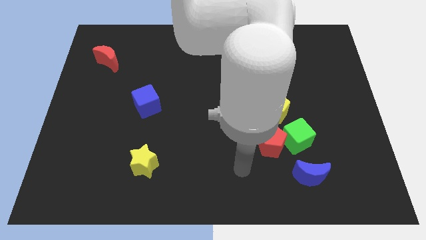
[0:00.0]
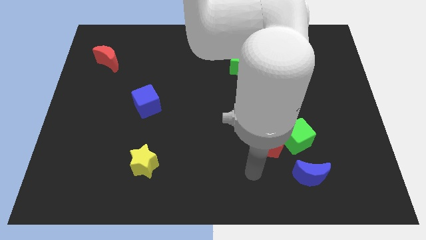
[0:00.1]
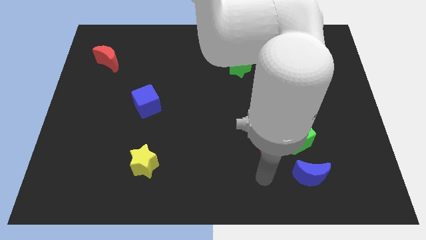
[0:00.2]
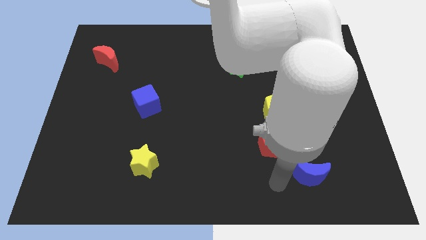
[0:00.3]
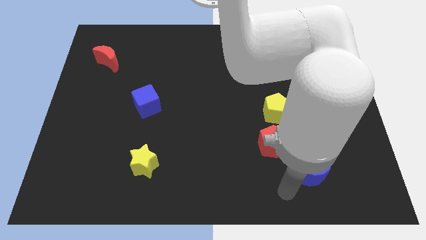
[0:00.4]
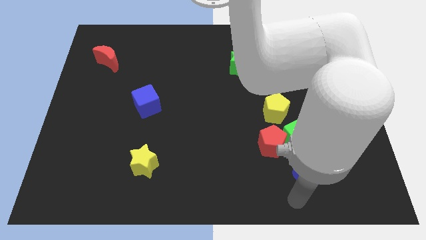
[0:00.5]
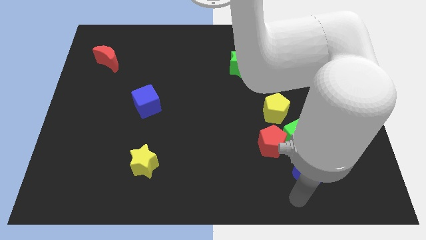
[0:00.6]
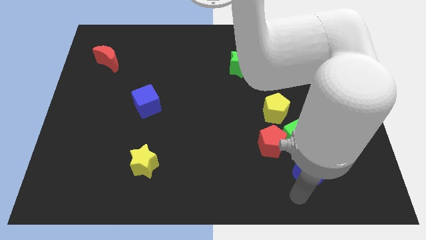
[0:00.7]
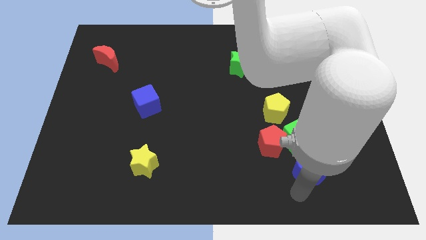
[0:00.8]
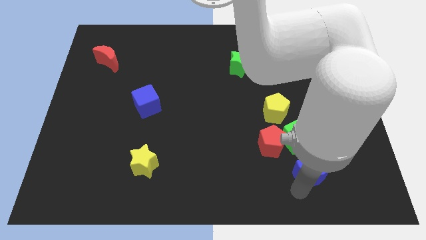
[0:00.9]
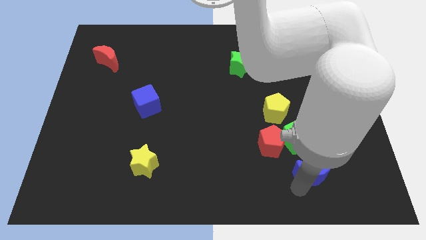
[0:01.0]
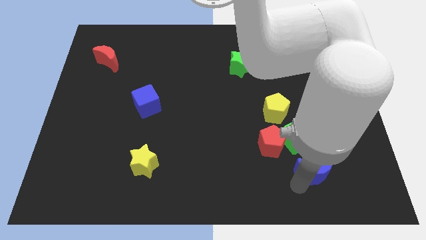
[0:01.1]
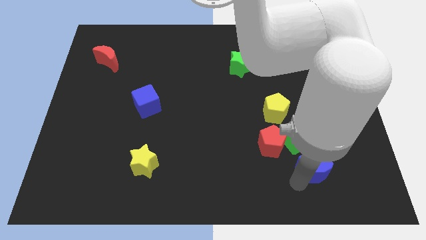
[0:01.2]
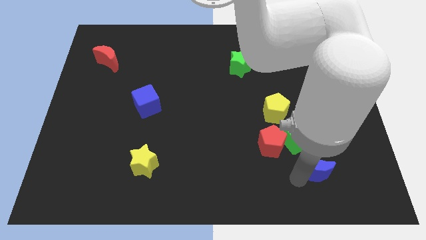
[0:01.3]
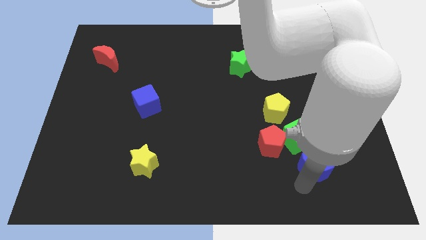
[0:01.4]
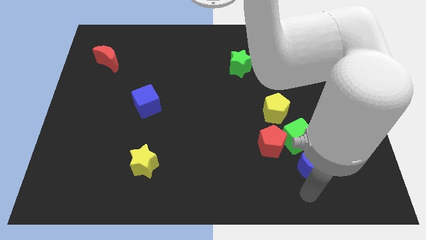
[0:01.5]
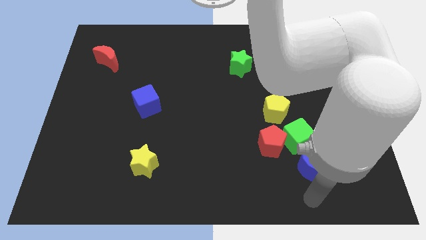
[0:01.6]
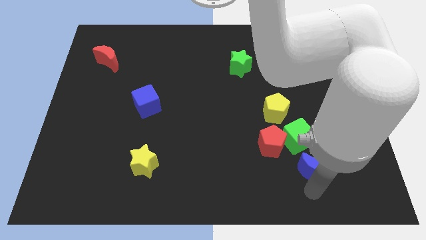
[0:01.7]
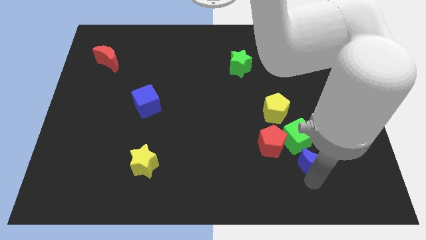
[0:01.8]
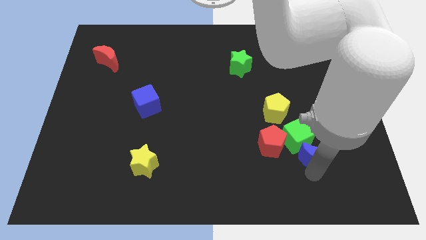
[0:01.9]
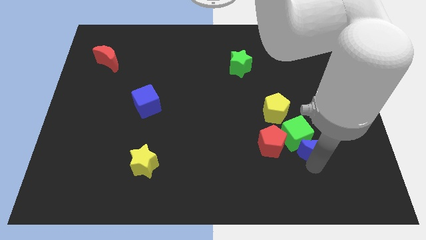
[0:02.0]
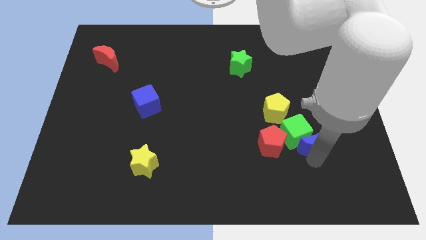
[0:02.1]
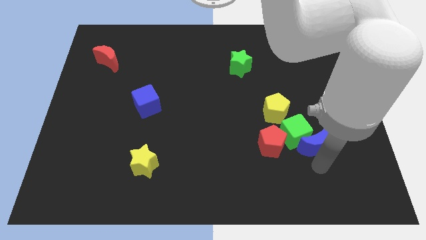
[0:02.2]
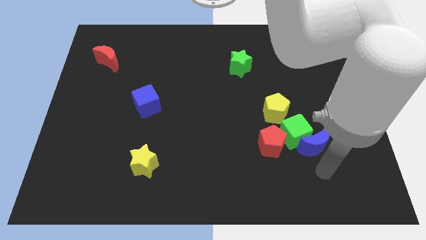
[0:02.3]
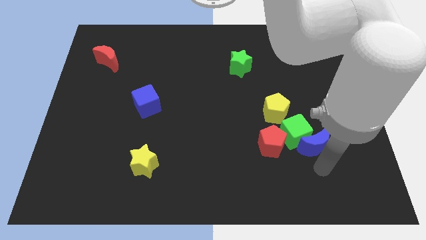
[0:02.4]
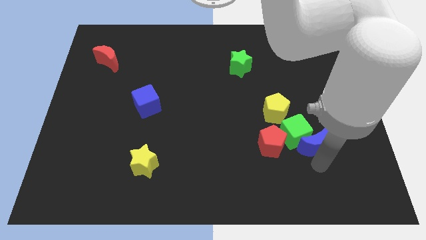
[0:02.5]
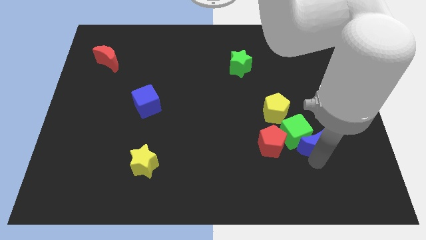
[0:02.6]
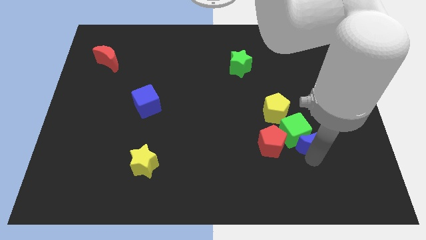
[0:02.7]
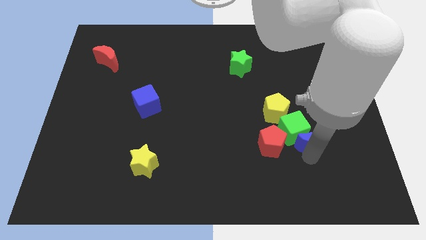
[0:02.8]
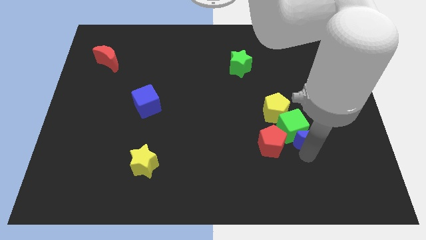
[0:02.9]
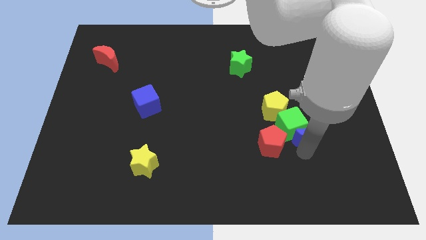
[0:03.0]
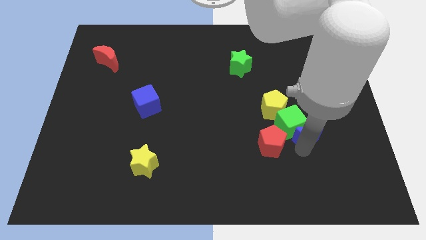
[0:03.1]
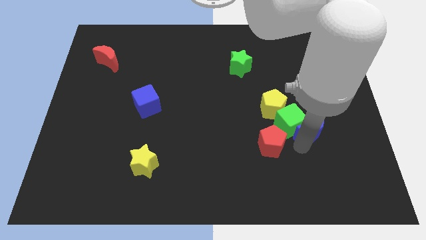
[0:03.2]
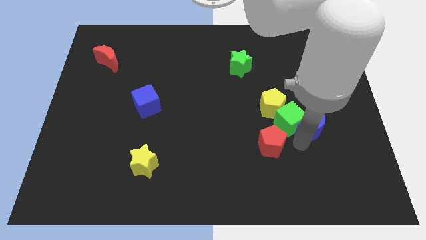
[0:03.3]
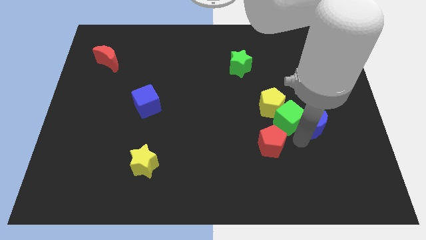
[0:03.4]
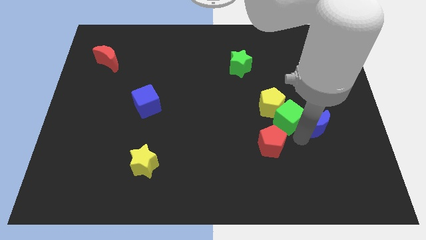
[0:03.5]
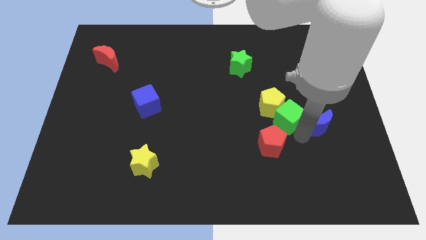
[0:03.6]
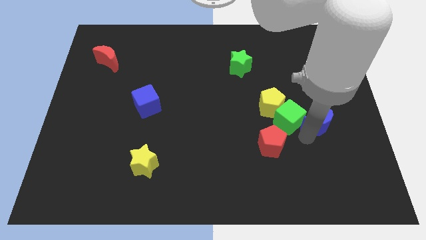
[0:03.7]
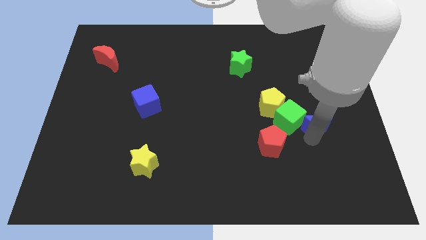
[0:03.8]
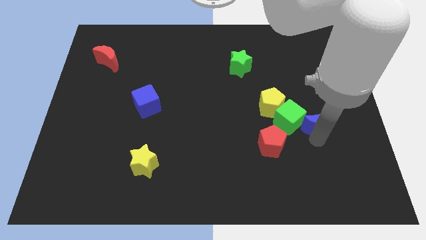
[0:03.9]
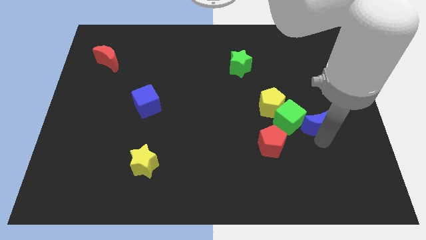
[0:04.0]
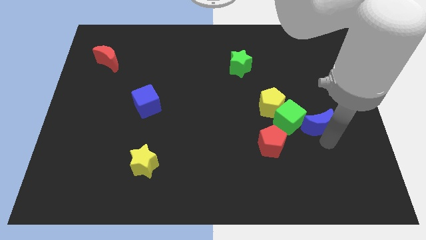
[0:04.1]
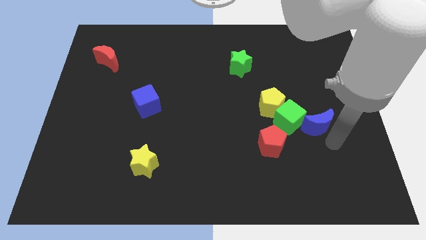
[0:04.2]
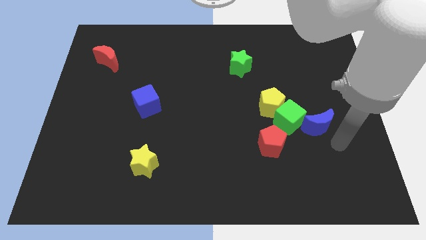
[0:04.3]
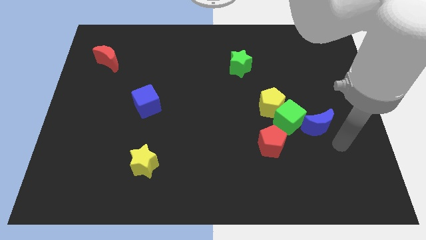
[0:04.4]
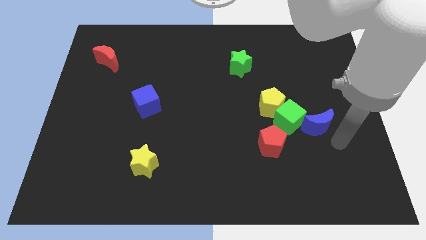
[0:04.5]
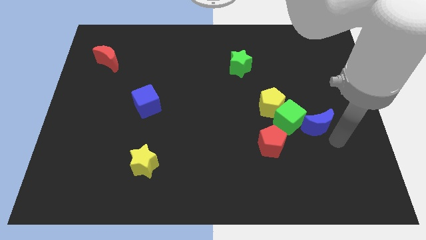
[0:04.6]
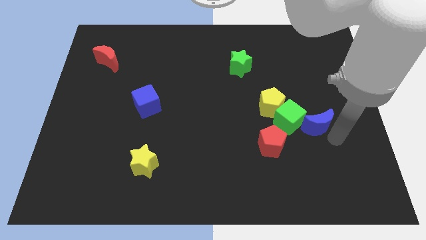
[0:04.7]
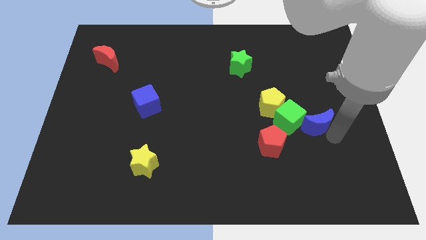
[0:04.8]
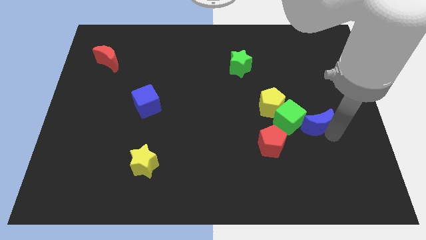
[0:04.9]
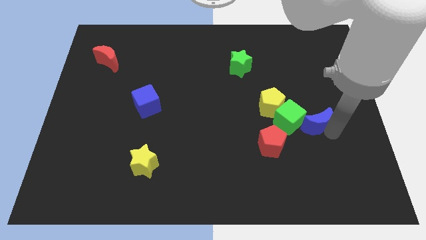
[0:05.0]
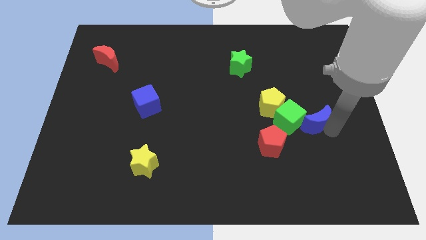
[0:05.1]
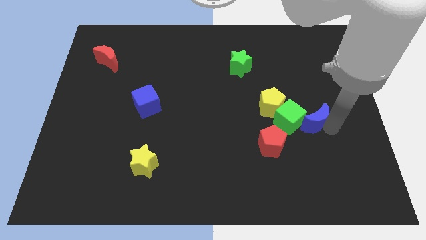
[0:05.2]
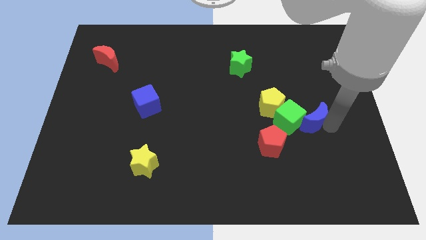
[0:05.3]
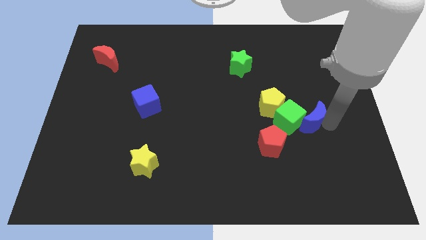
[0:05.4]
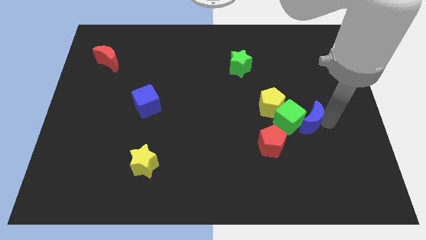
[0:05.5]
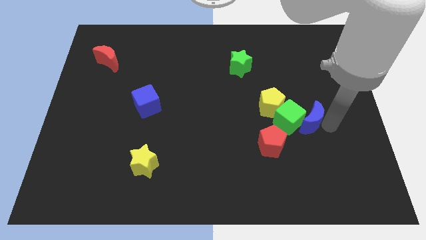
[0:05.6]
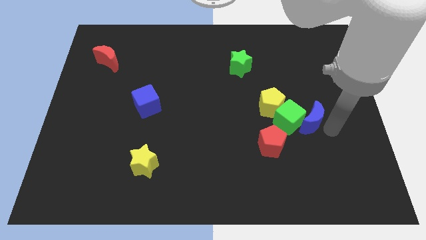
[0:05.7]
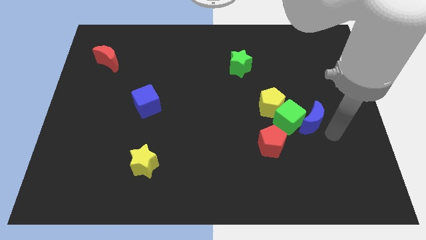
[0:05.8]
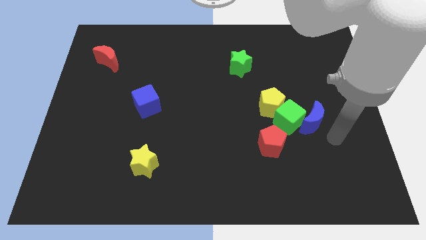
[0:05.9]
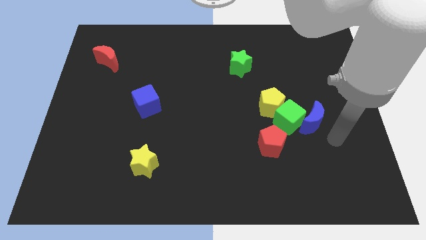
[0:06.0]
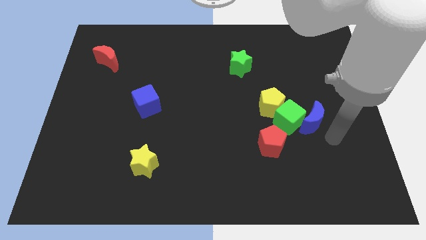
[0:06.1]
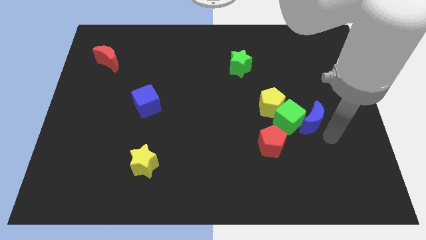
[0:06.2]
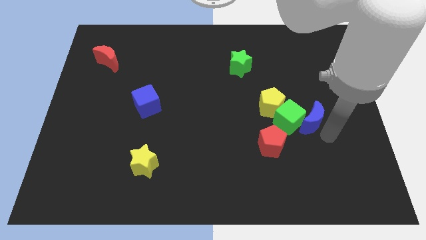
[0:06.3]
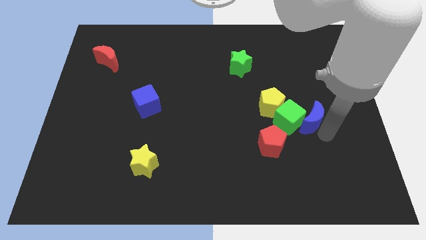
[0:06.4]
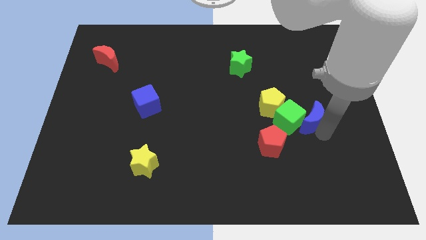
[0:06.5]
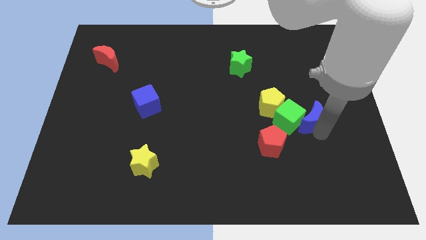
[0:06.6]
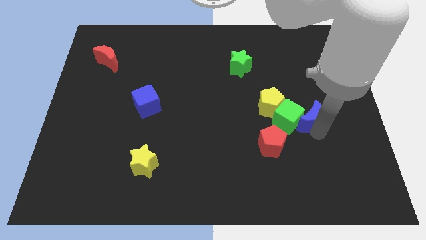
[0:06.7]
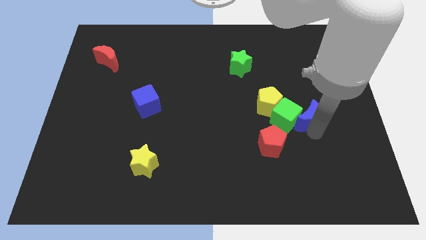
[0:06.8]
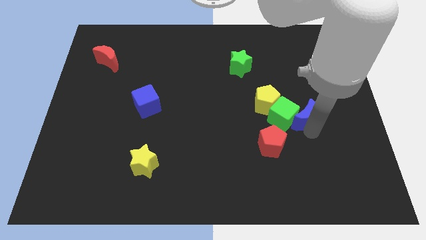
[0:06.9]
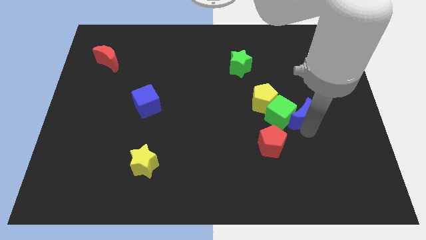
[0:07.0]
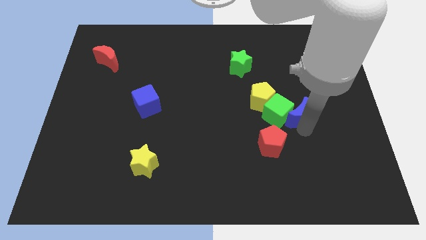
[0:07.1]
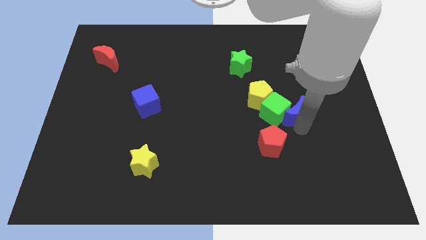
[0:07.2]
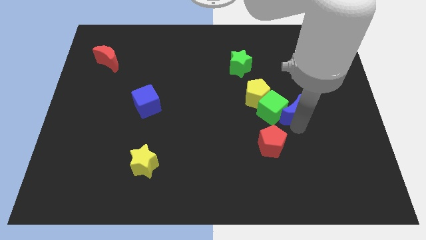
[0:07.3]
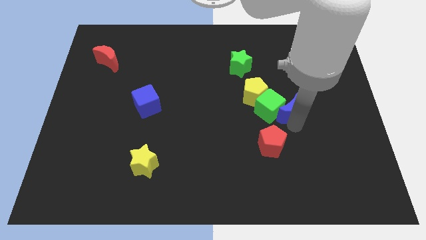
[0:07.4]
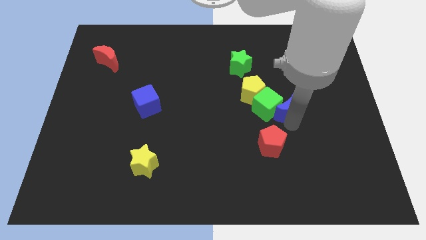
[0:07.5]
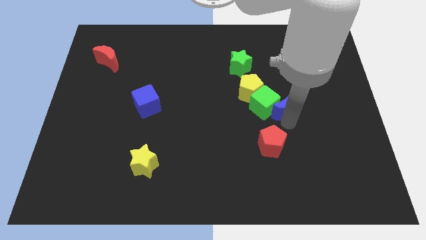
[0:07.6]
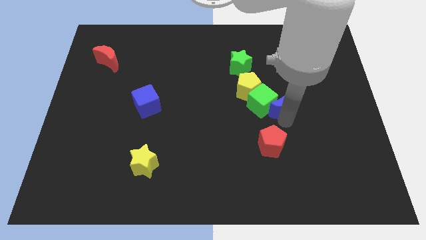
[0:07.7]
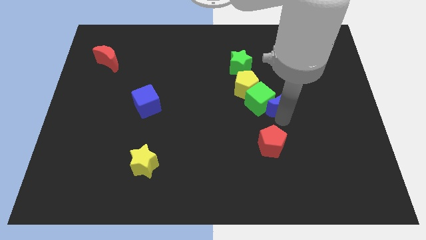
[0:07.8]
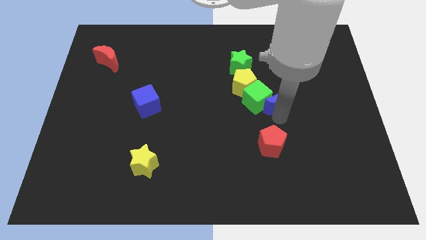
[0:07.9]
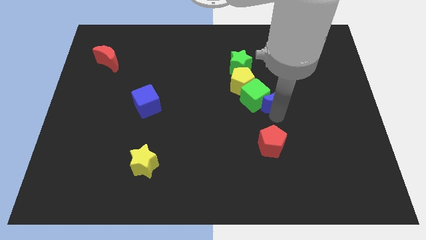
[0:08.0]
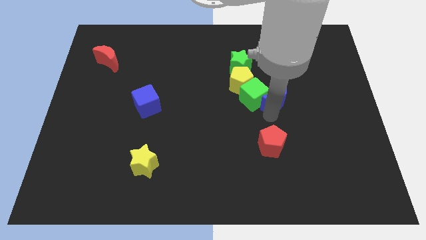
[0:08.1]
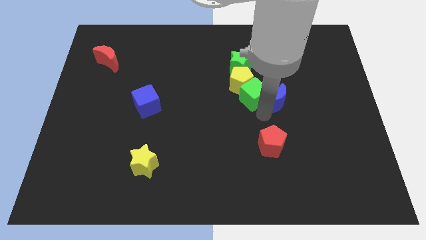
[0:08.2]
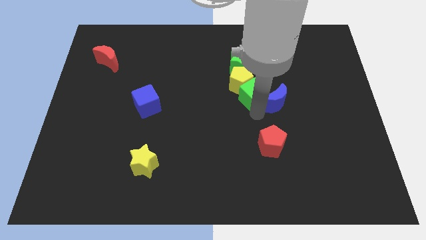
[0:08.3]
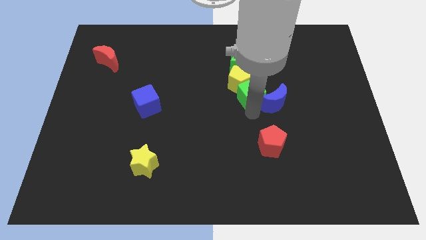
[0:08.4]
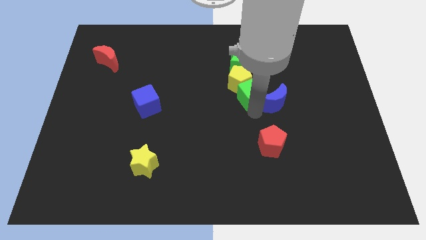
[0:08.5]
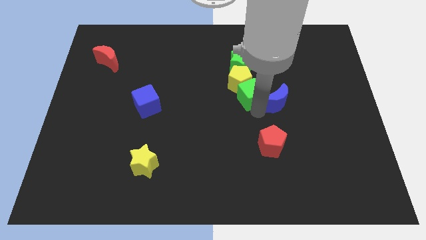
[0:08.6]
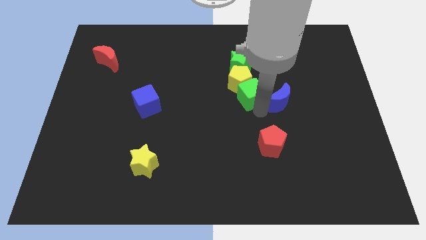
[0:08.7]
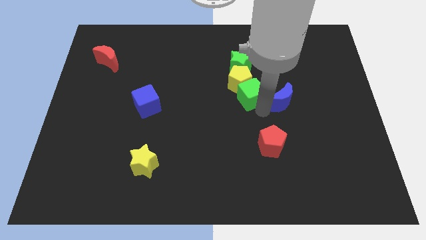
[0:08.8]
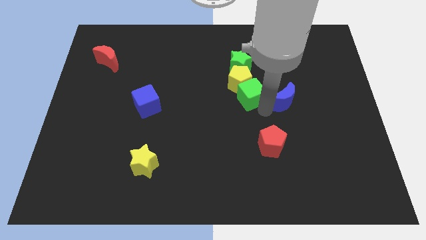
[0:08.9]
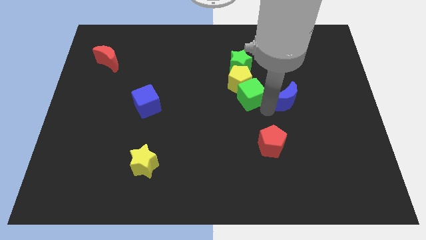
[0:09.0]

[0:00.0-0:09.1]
push the blue moon upwards
